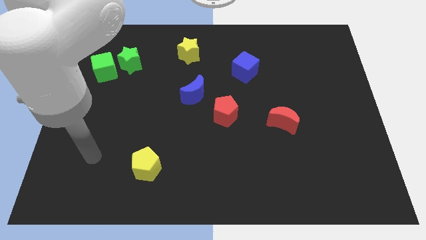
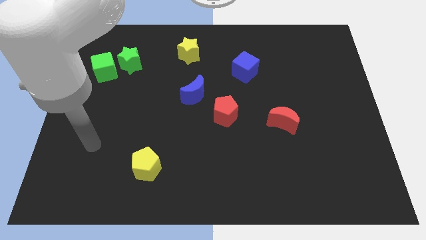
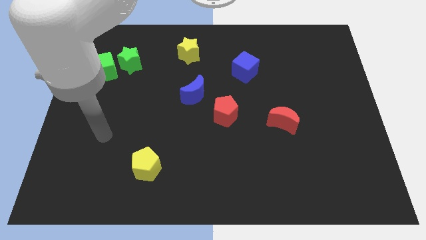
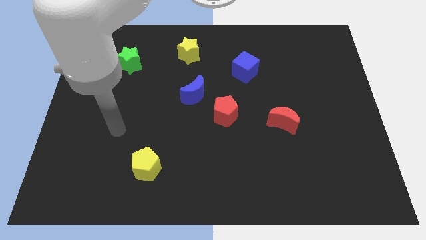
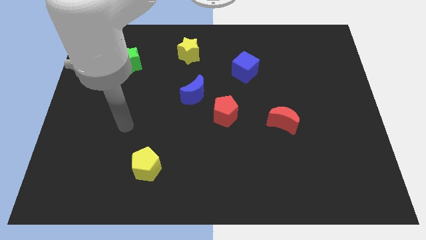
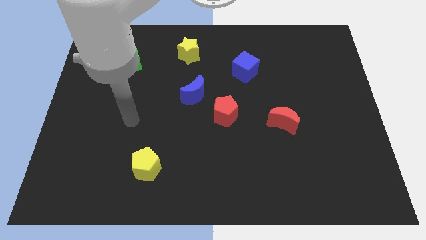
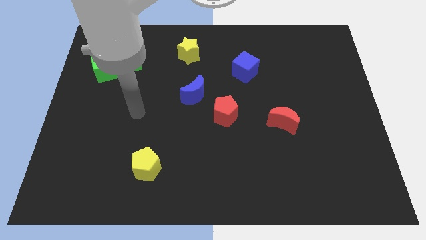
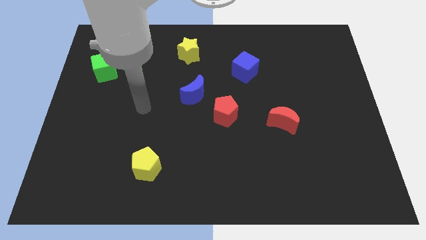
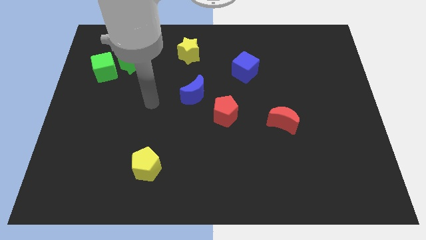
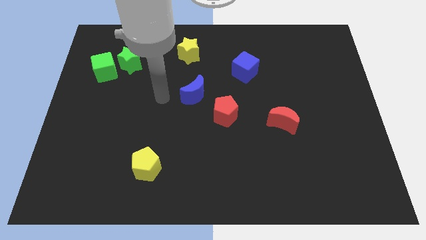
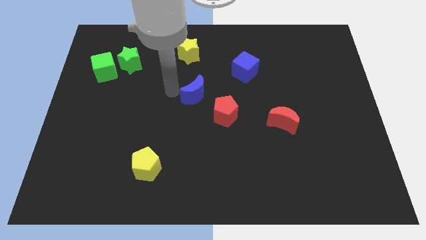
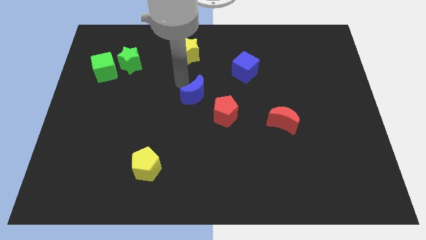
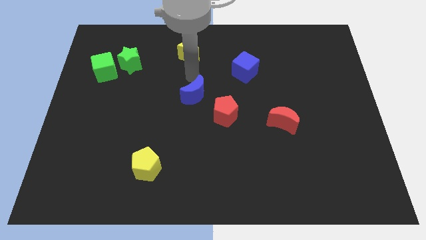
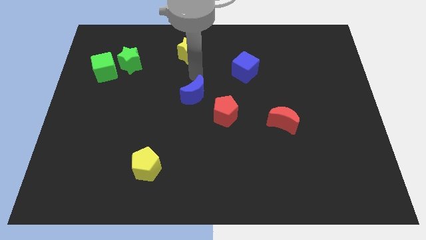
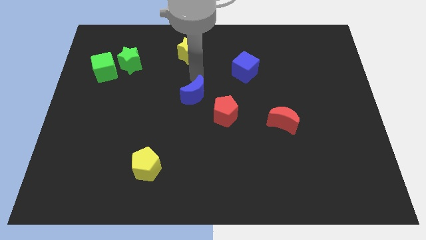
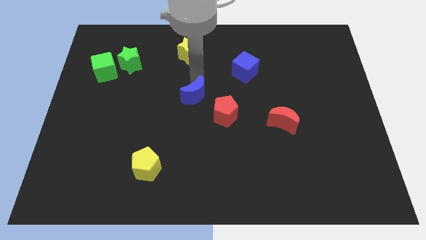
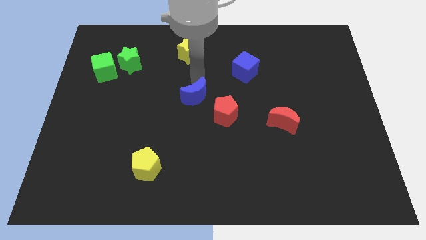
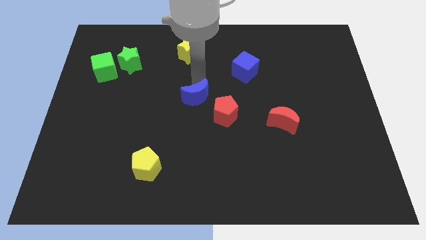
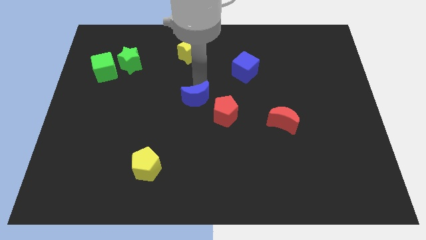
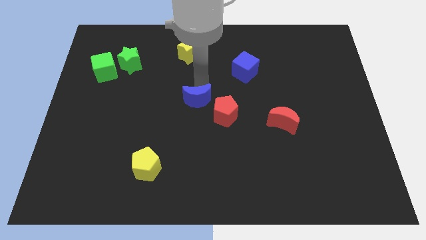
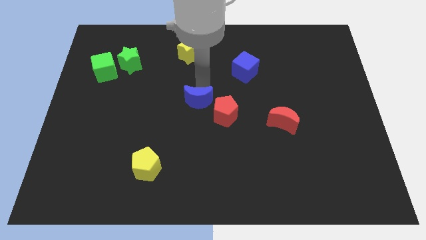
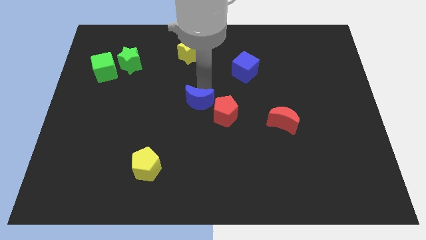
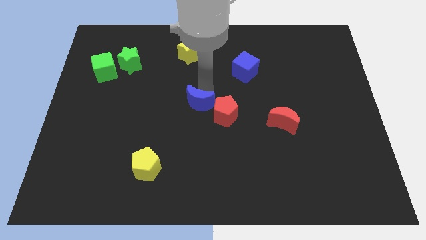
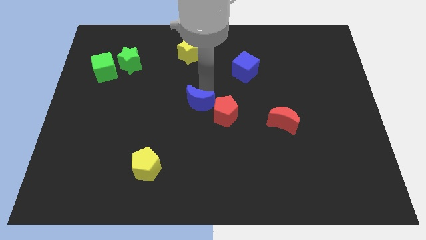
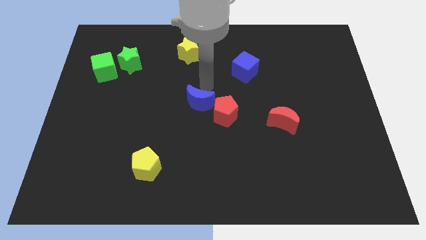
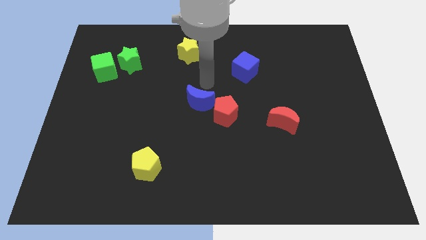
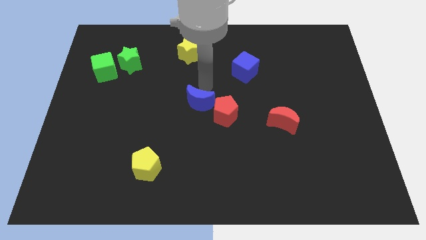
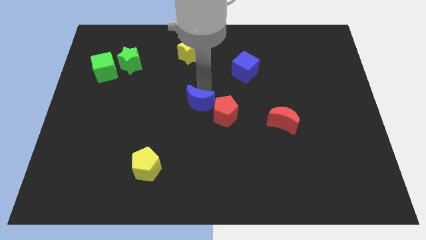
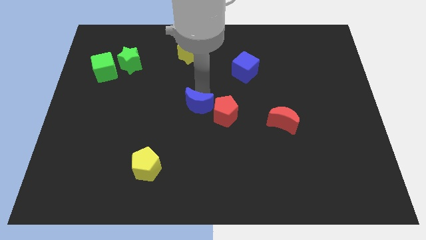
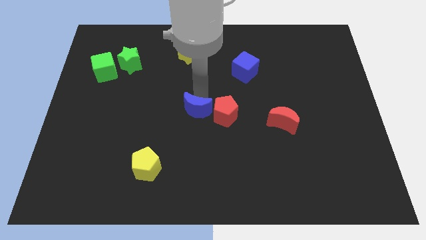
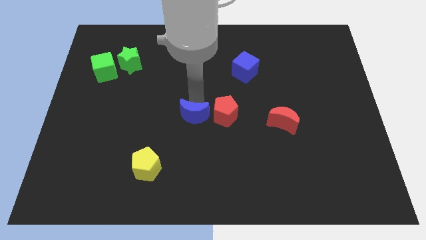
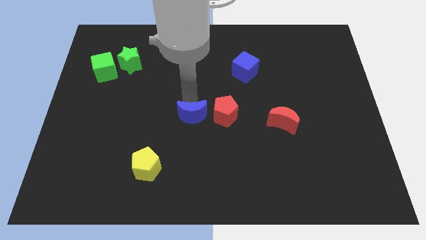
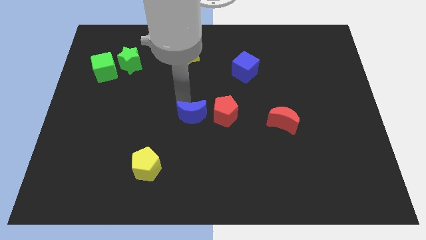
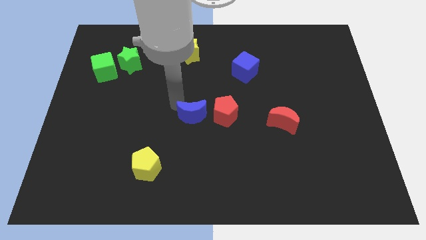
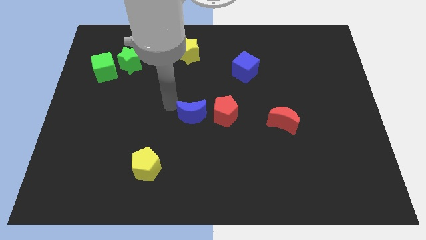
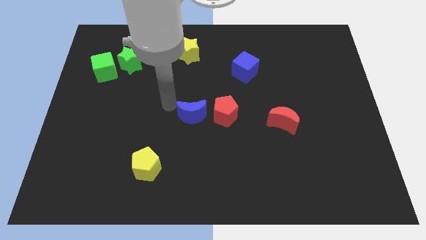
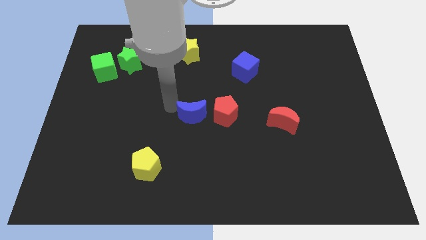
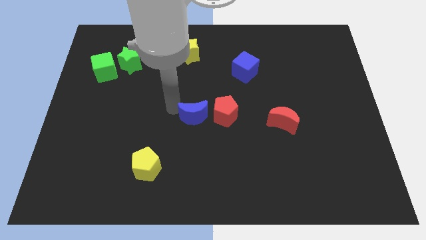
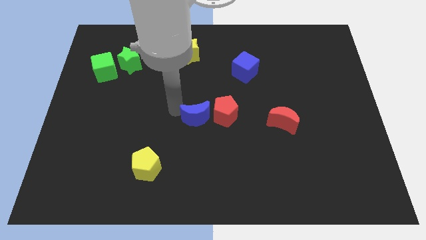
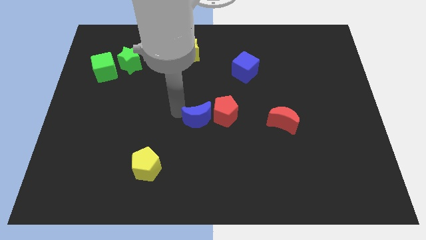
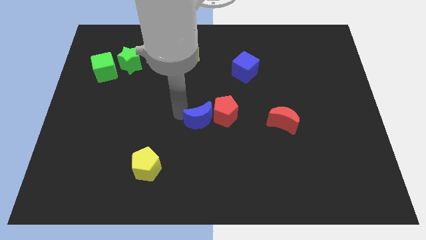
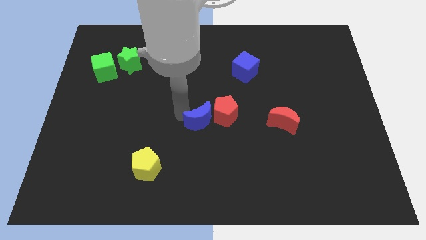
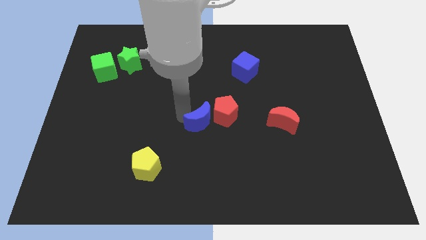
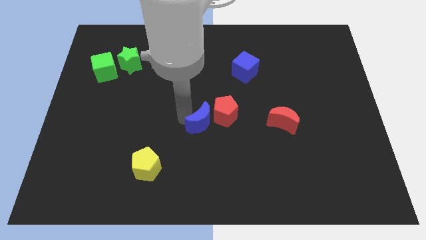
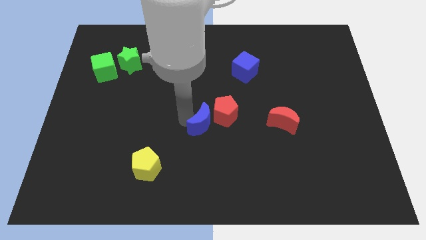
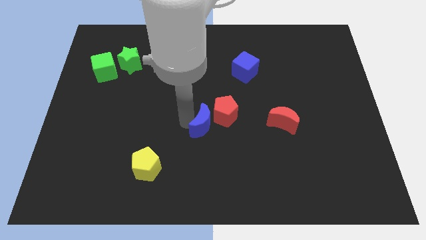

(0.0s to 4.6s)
push the blue moon a little bit down and right diagonally

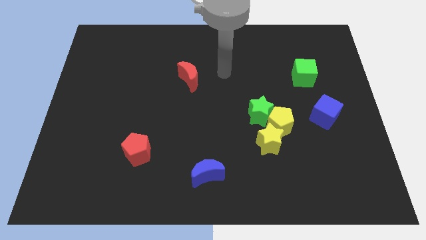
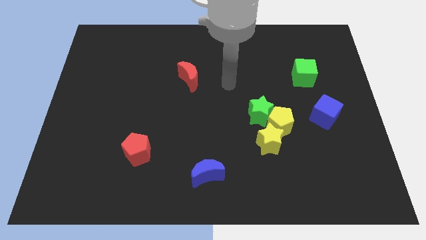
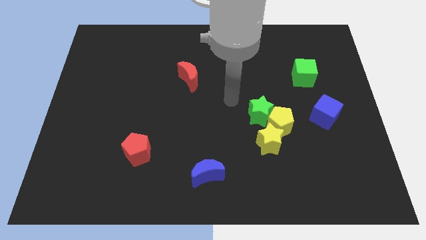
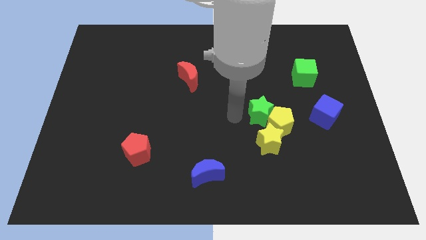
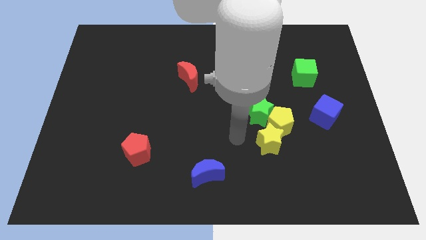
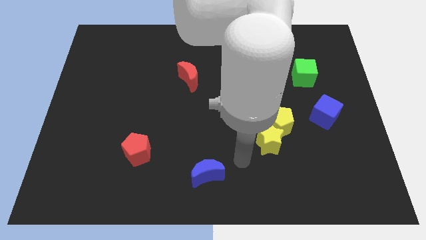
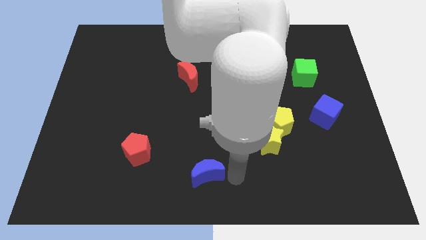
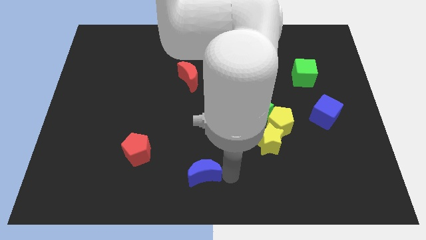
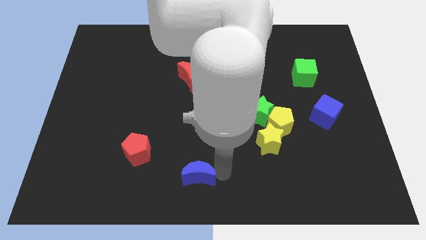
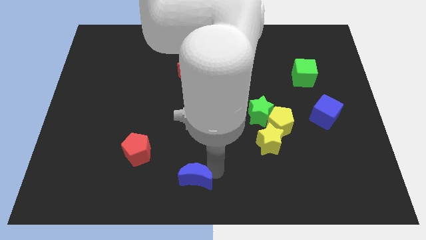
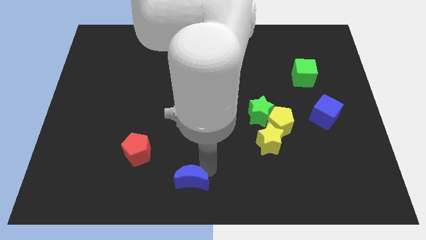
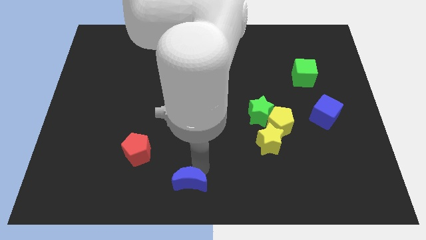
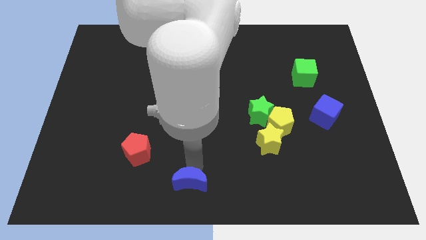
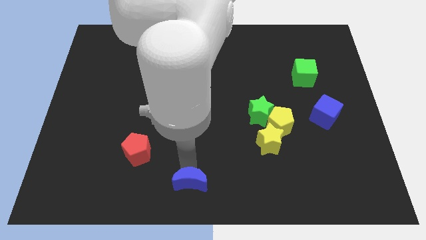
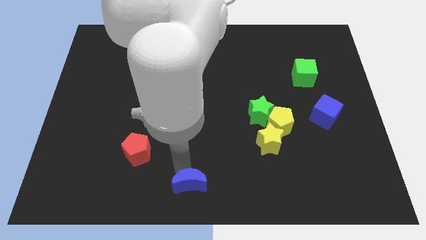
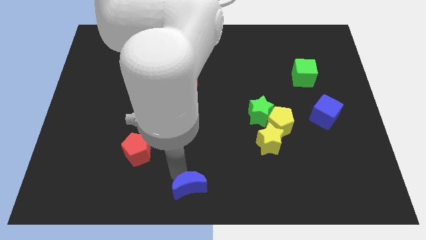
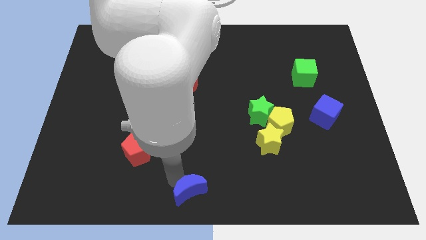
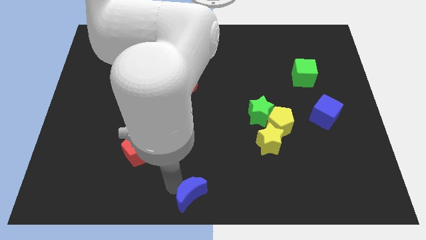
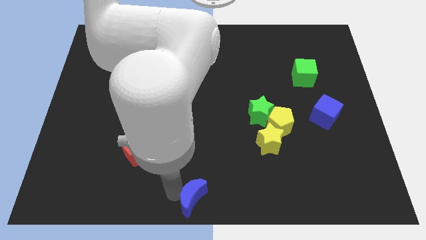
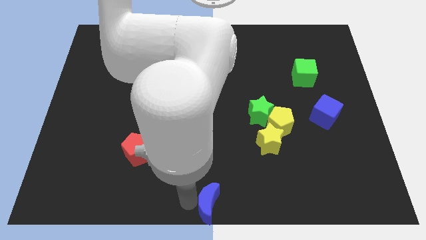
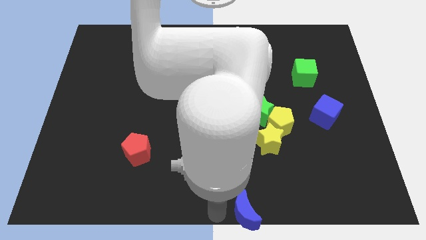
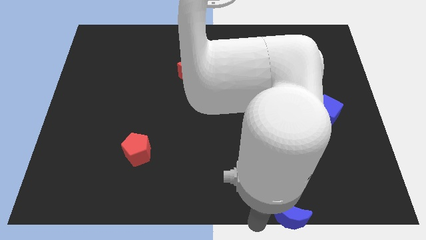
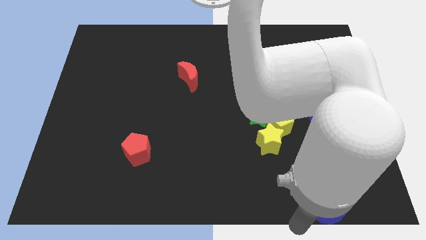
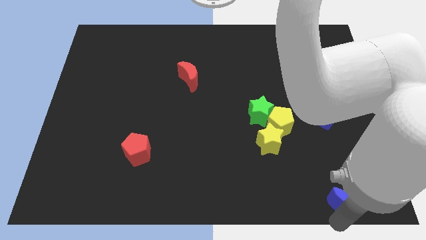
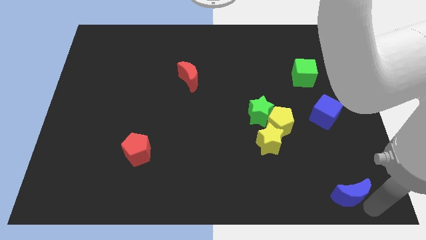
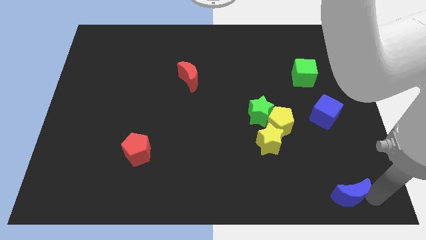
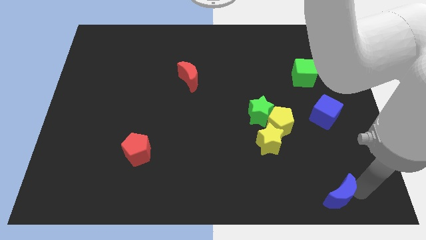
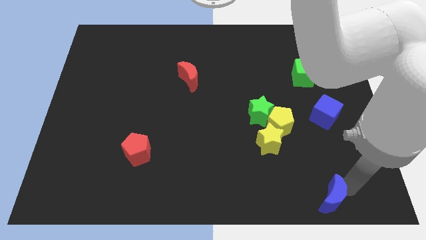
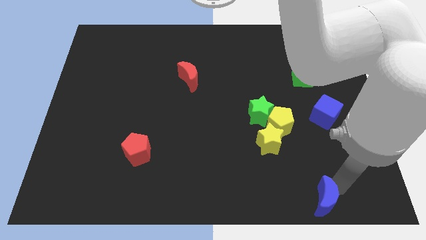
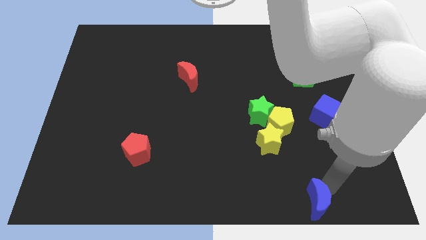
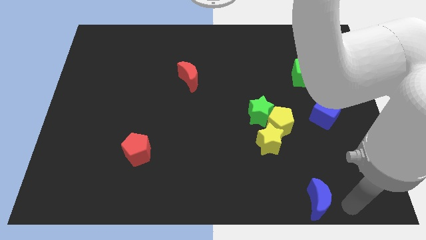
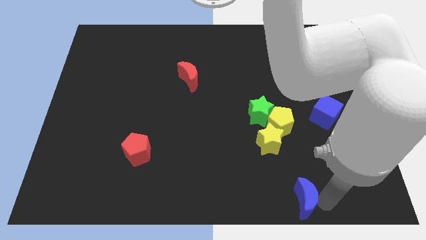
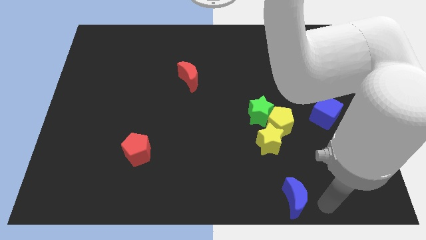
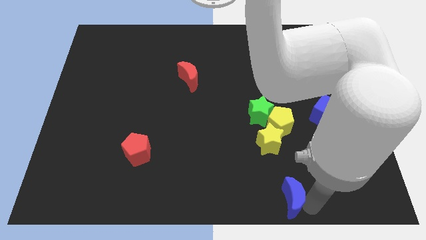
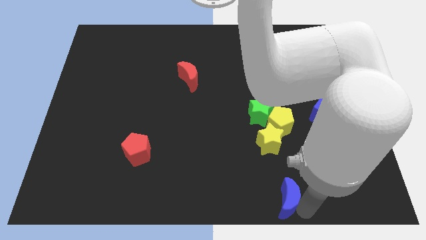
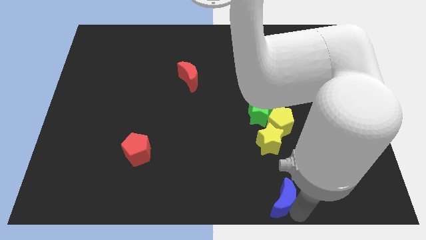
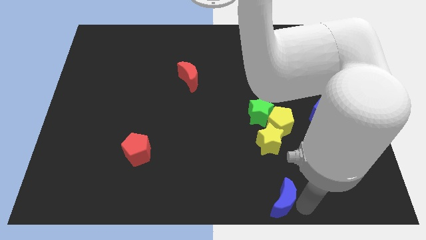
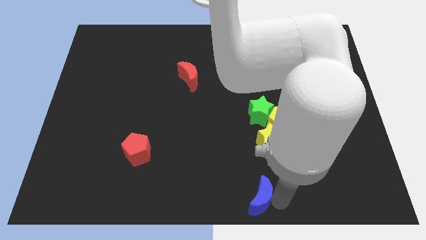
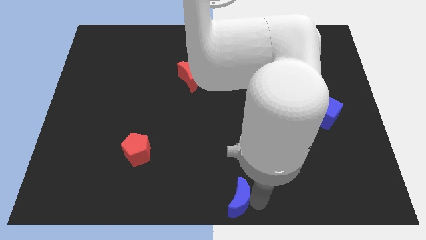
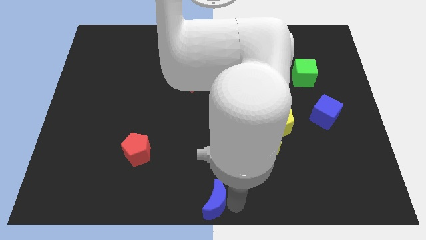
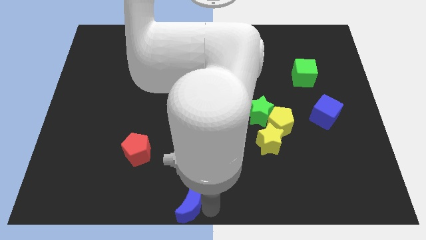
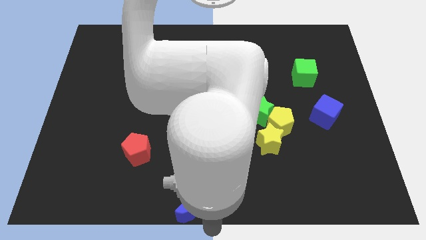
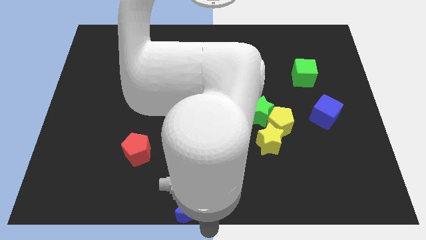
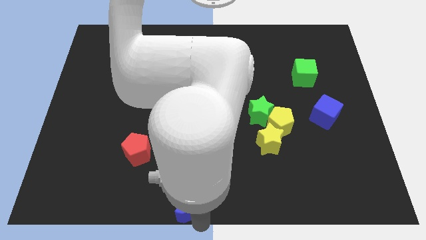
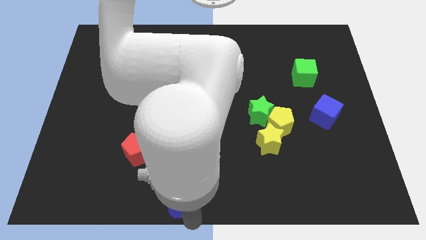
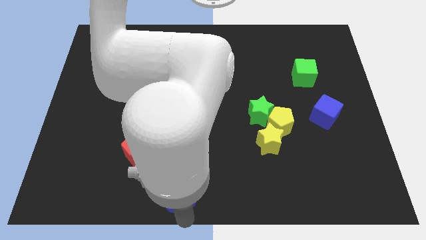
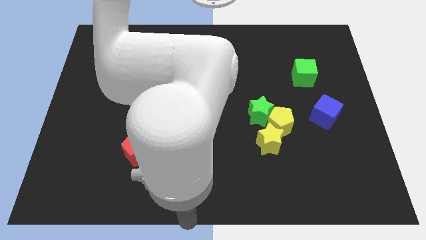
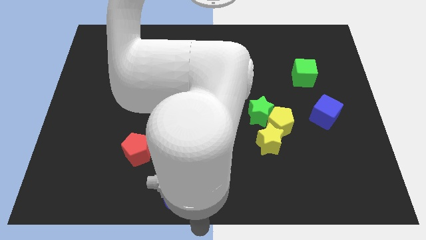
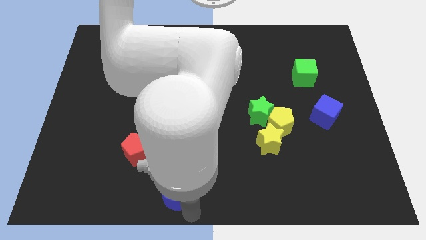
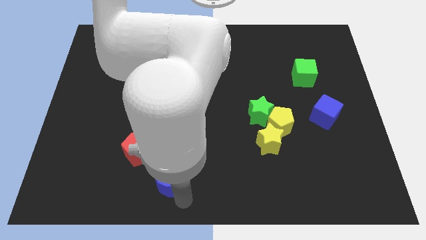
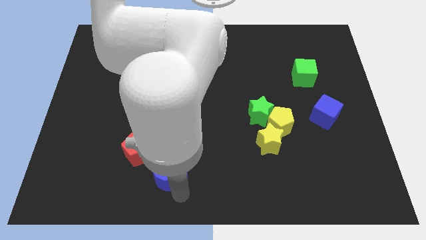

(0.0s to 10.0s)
push the blue moon a little left
